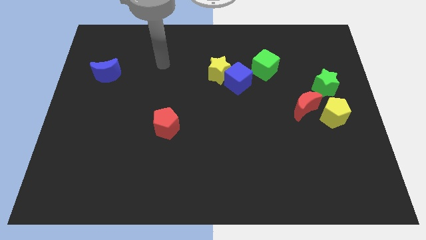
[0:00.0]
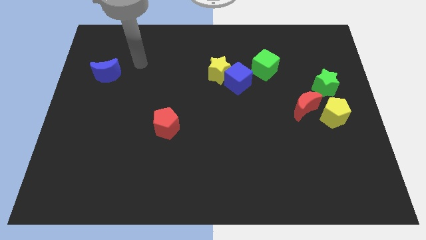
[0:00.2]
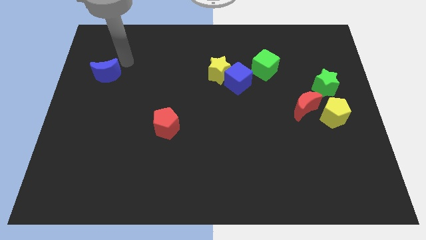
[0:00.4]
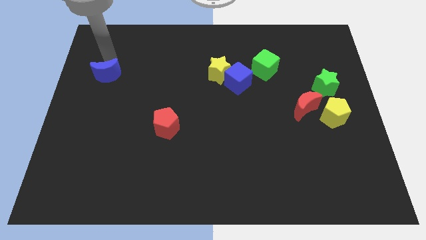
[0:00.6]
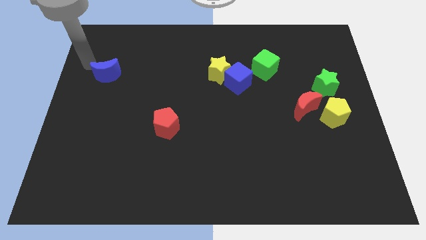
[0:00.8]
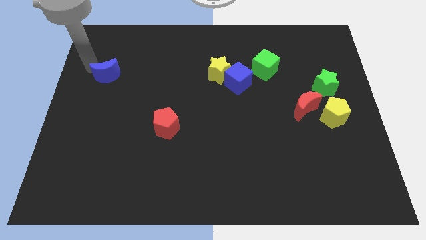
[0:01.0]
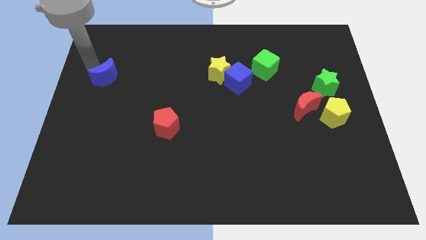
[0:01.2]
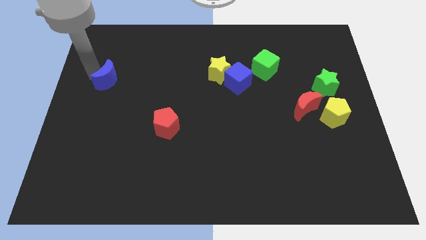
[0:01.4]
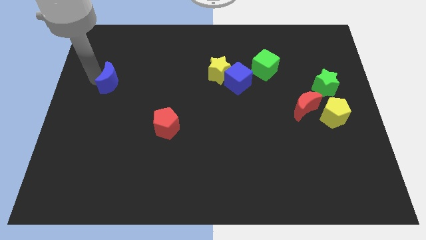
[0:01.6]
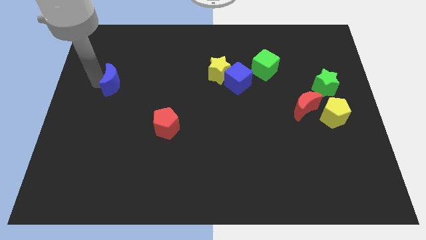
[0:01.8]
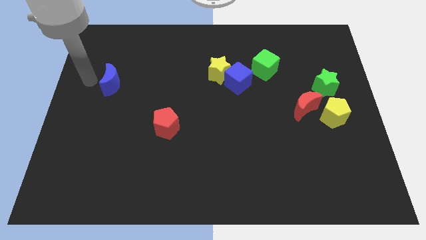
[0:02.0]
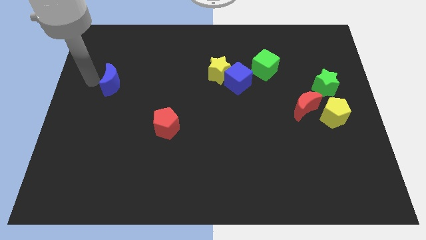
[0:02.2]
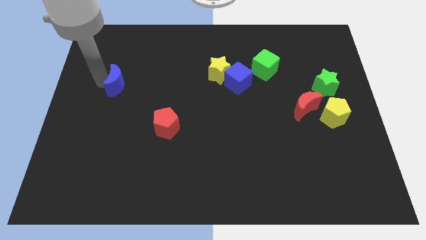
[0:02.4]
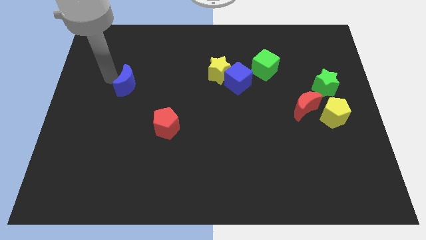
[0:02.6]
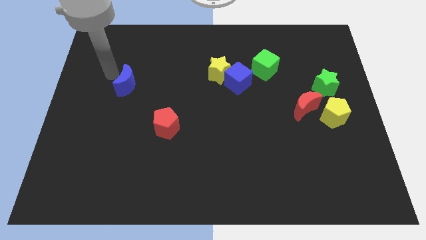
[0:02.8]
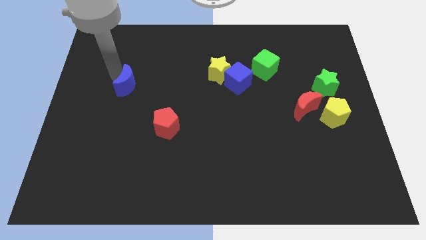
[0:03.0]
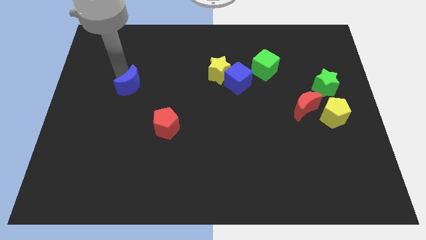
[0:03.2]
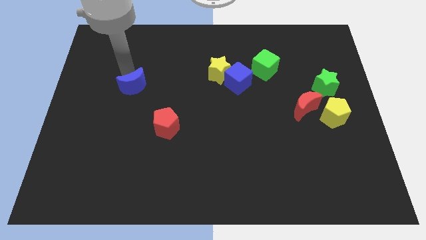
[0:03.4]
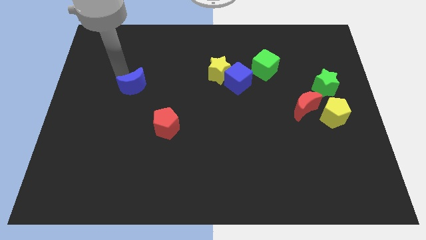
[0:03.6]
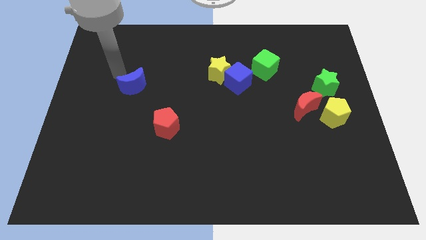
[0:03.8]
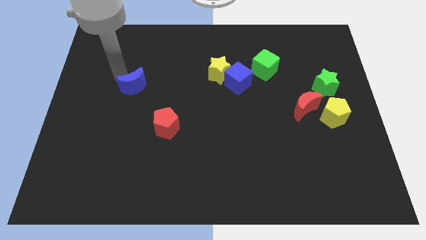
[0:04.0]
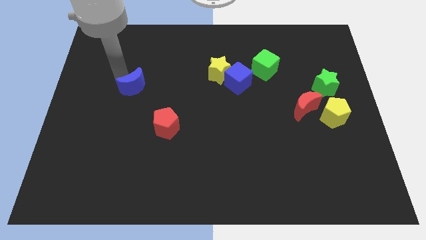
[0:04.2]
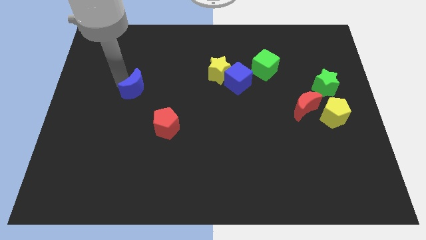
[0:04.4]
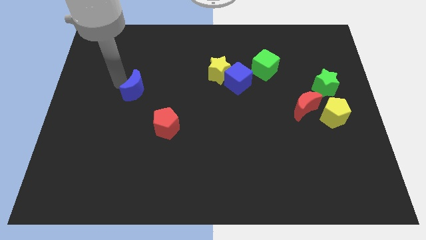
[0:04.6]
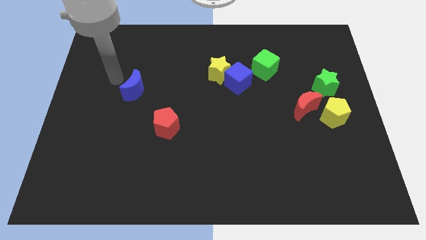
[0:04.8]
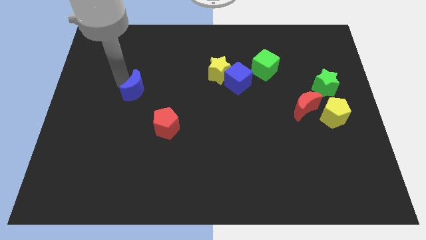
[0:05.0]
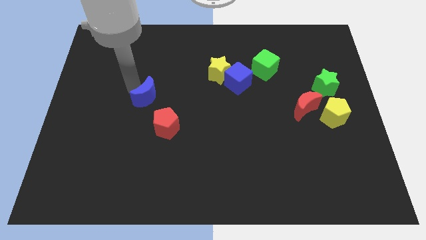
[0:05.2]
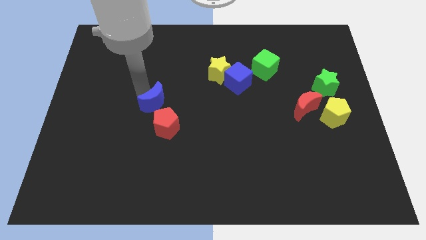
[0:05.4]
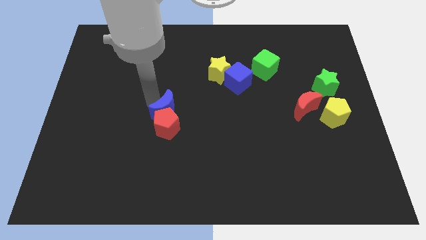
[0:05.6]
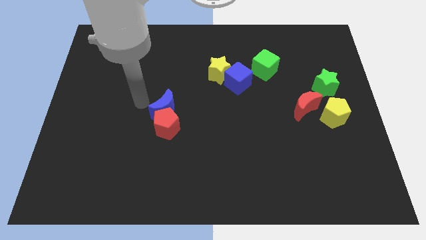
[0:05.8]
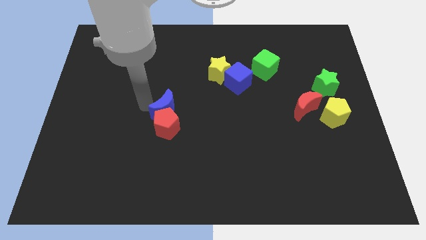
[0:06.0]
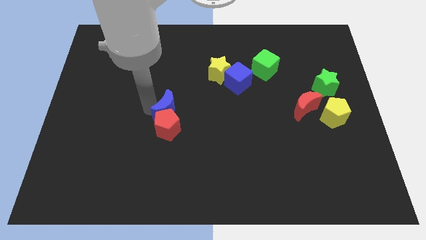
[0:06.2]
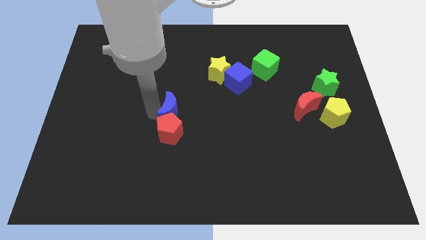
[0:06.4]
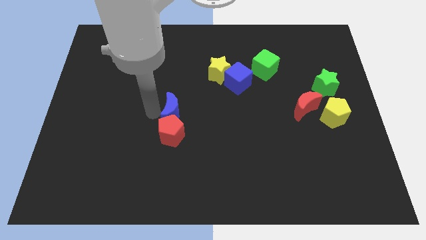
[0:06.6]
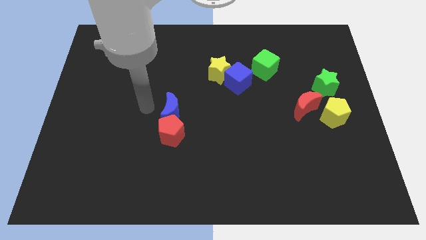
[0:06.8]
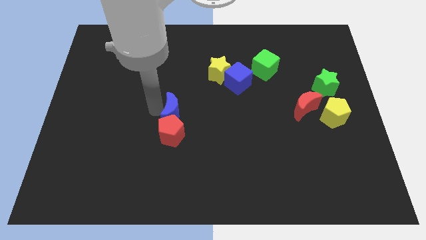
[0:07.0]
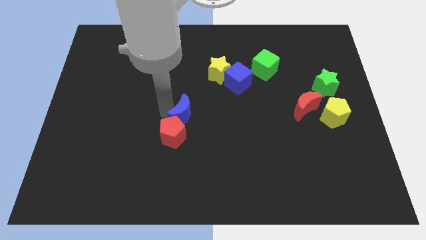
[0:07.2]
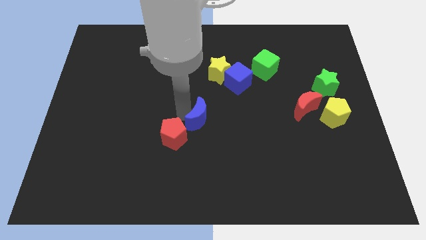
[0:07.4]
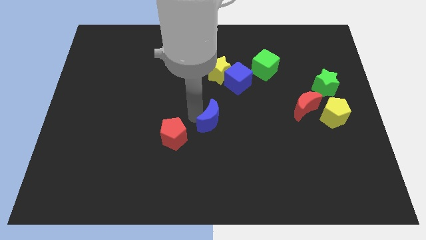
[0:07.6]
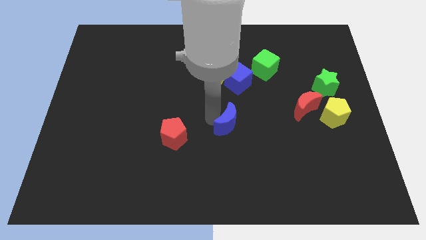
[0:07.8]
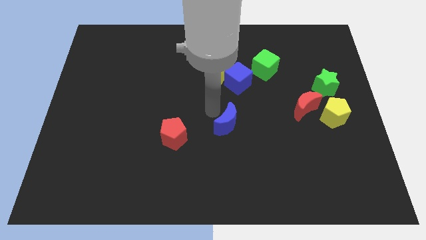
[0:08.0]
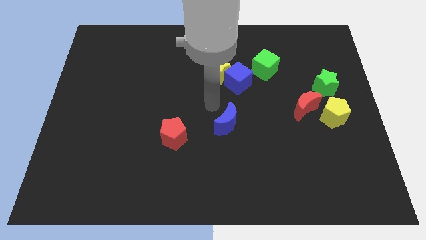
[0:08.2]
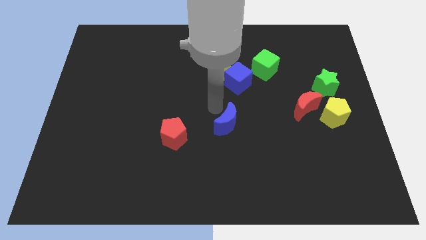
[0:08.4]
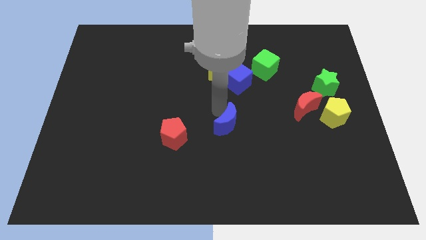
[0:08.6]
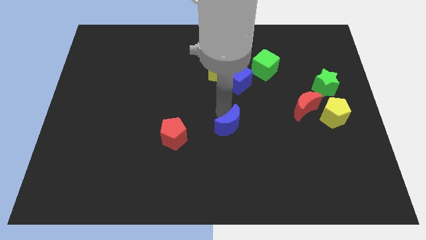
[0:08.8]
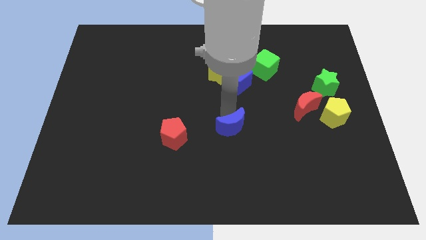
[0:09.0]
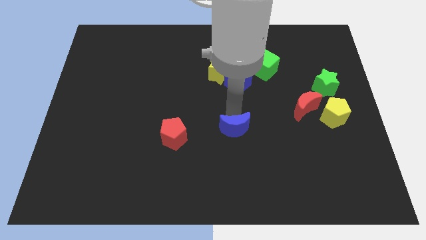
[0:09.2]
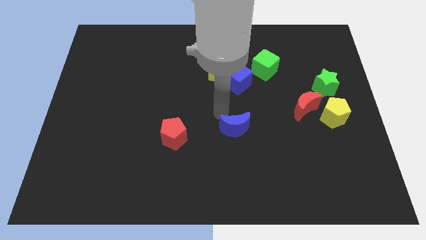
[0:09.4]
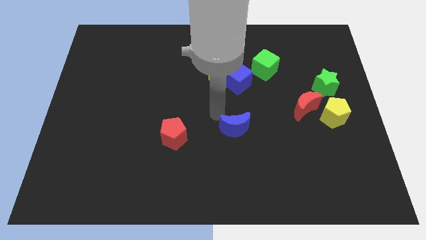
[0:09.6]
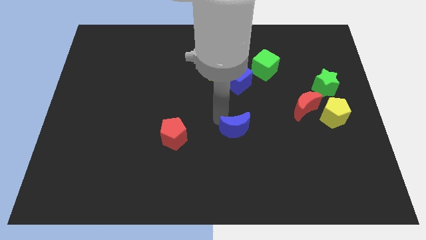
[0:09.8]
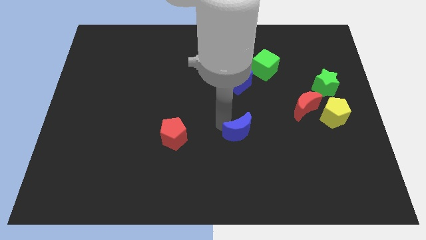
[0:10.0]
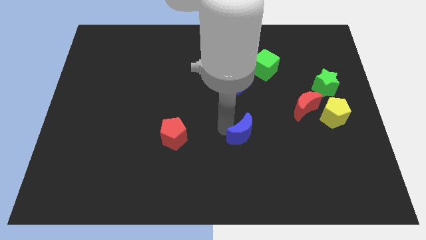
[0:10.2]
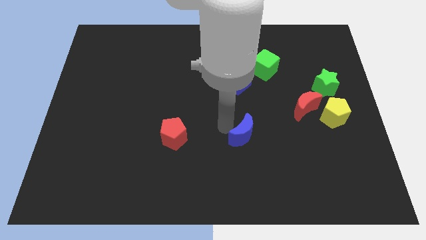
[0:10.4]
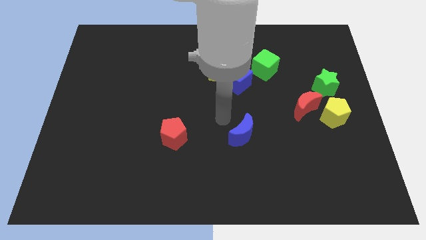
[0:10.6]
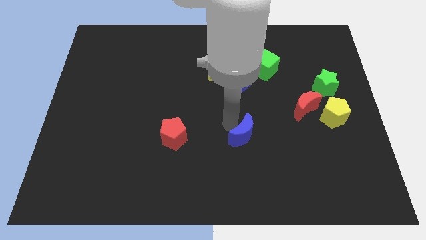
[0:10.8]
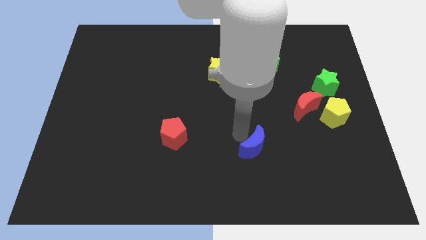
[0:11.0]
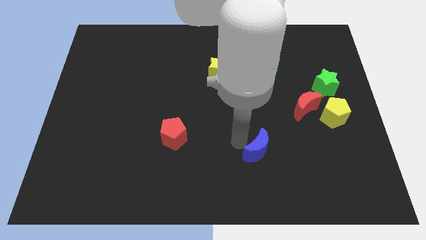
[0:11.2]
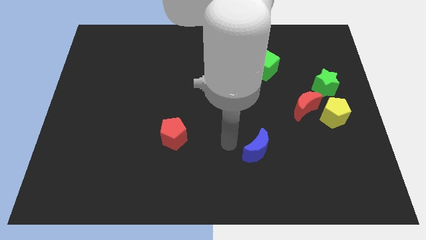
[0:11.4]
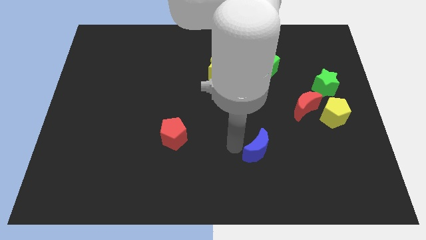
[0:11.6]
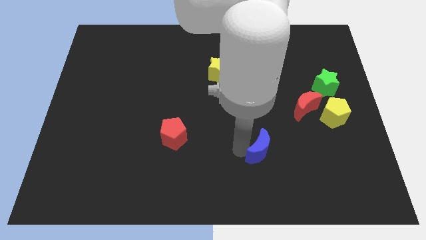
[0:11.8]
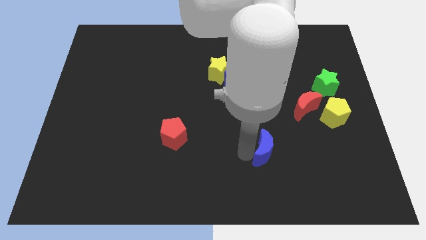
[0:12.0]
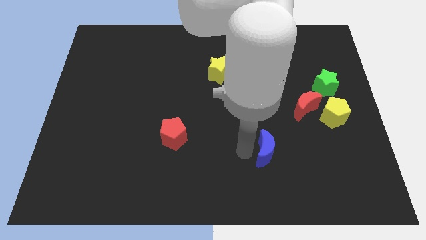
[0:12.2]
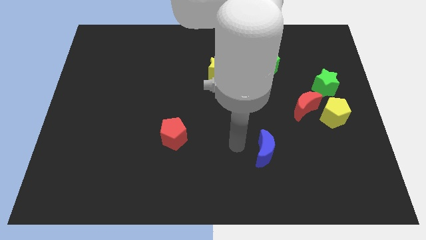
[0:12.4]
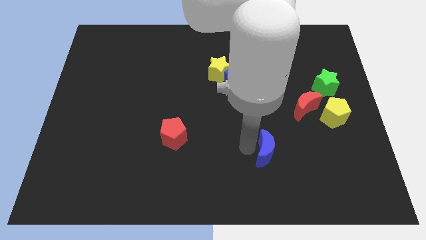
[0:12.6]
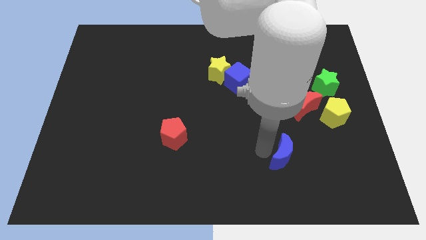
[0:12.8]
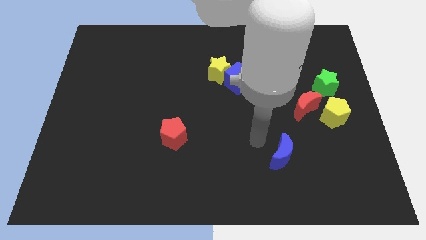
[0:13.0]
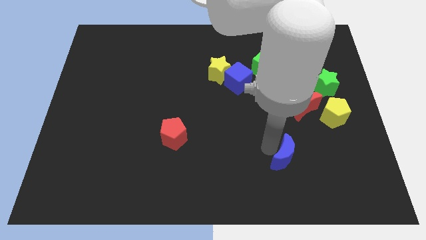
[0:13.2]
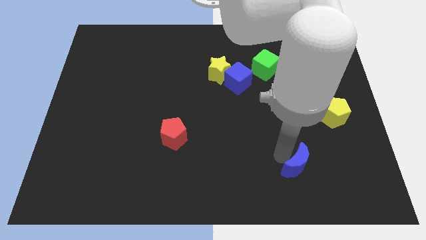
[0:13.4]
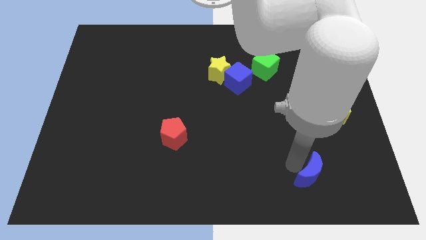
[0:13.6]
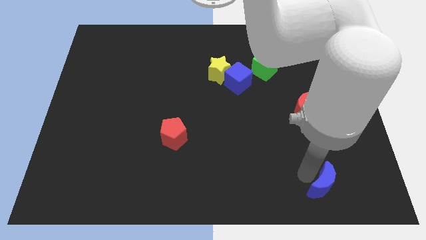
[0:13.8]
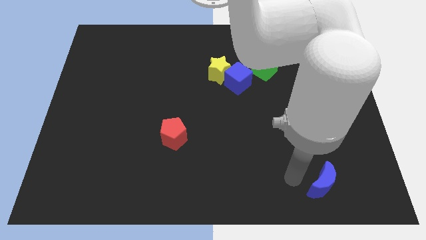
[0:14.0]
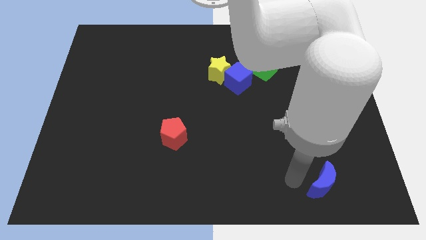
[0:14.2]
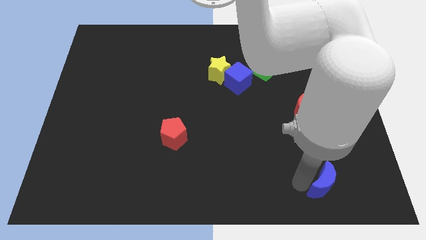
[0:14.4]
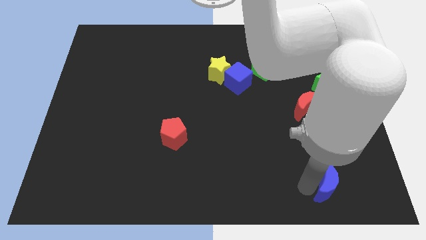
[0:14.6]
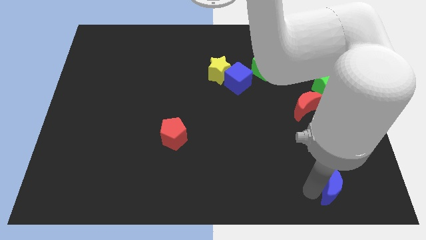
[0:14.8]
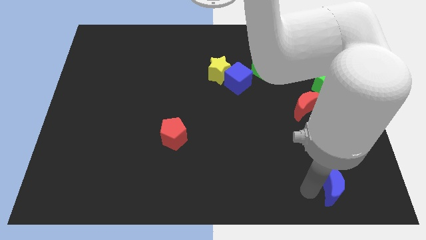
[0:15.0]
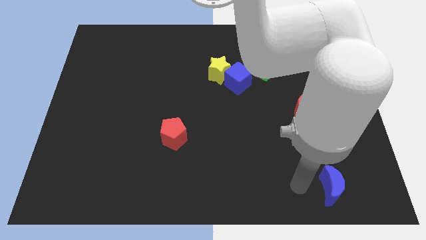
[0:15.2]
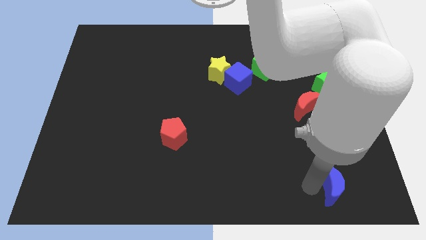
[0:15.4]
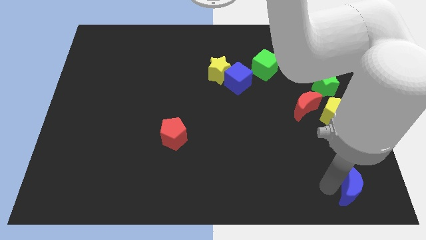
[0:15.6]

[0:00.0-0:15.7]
put the blue moon to the bottom right
